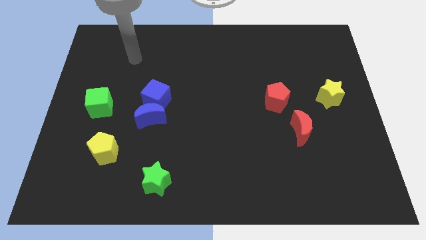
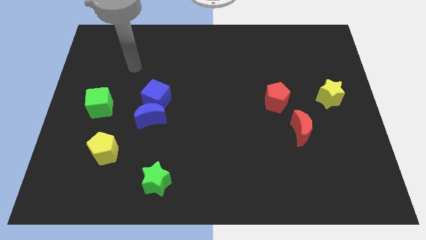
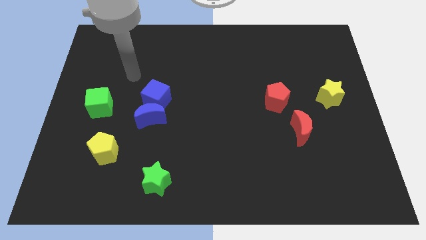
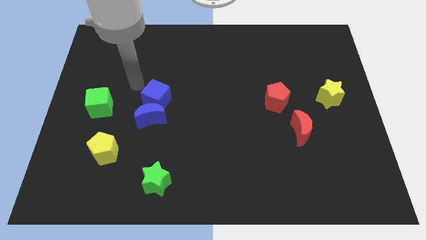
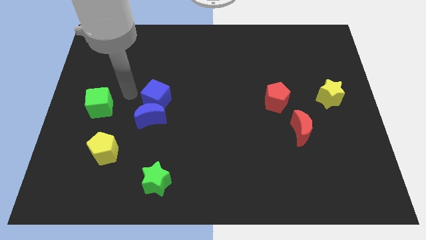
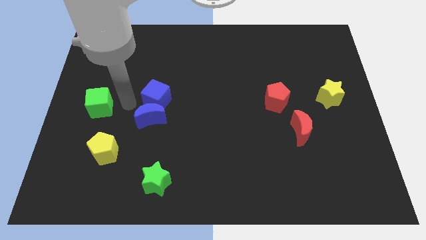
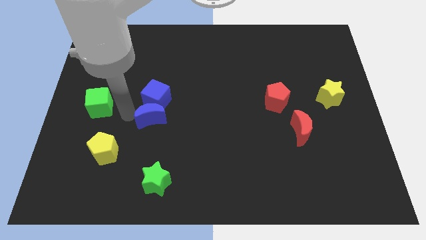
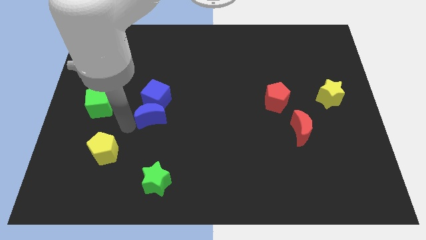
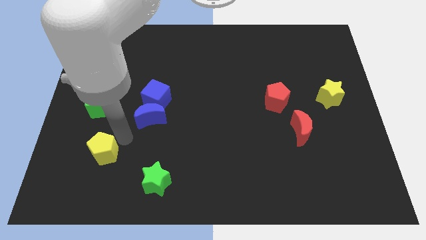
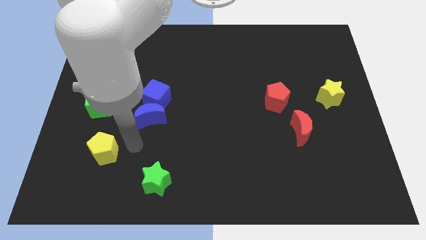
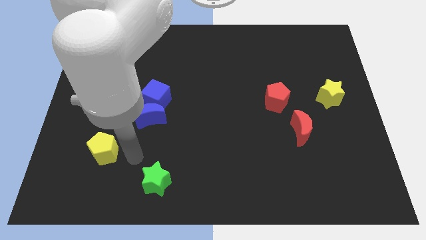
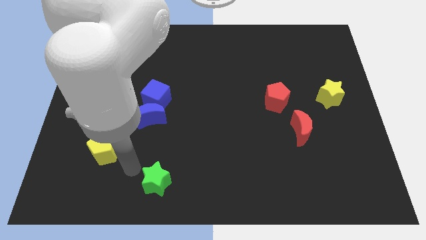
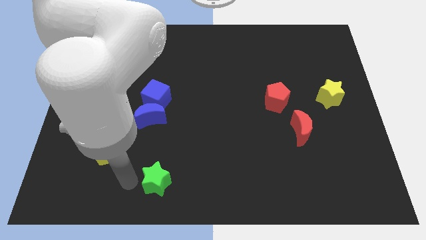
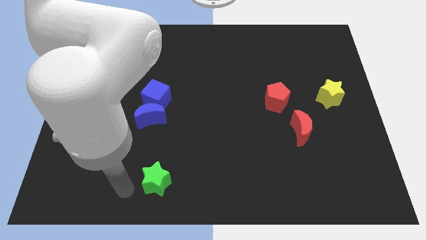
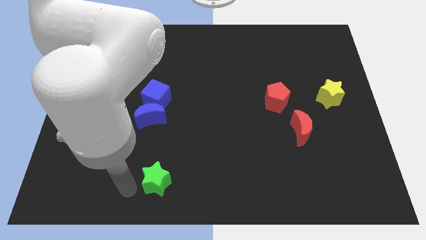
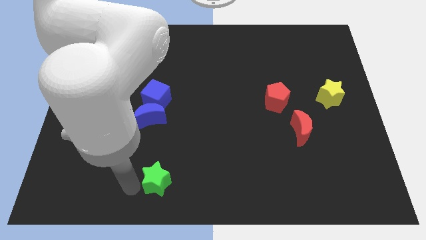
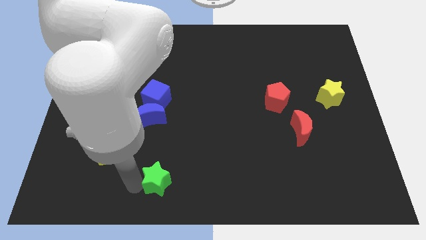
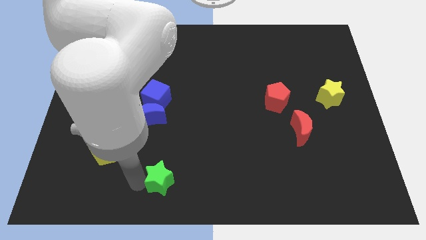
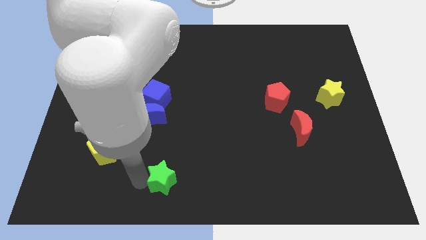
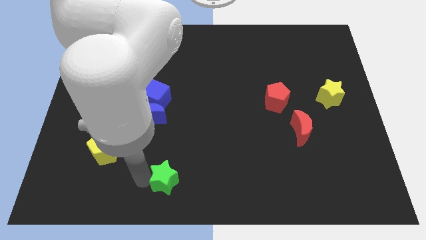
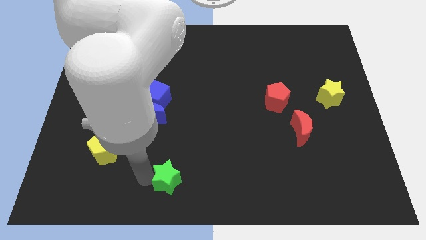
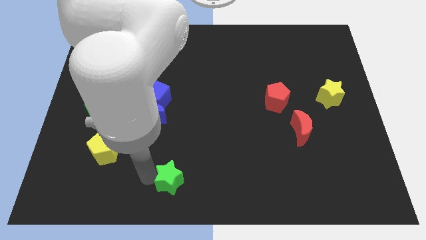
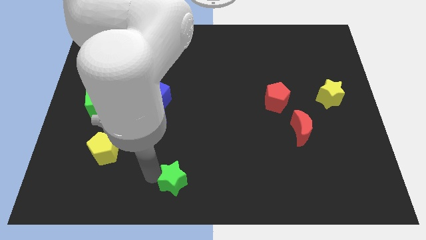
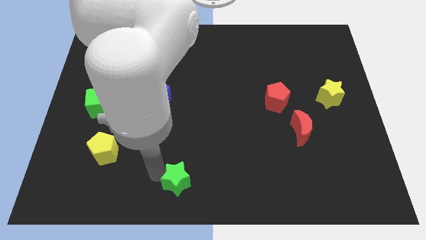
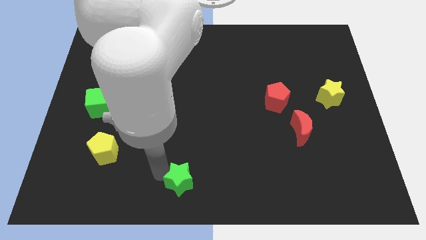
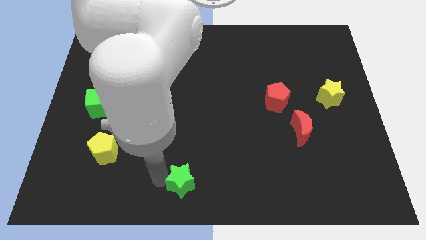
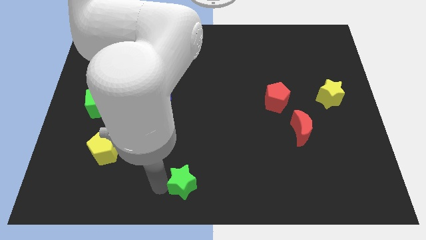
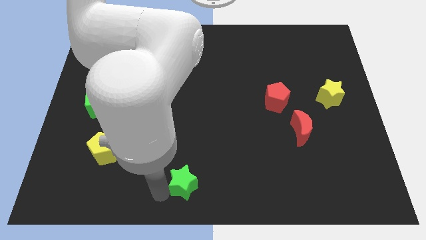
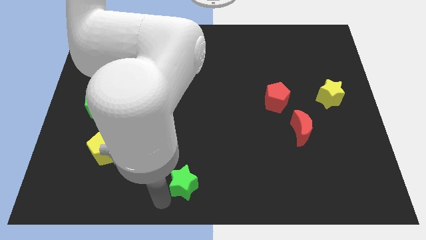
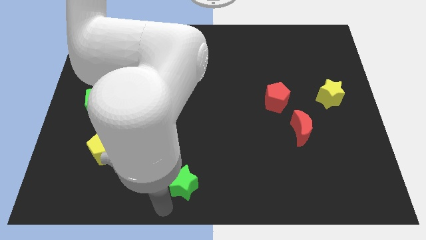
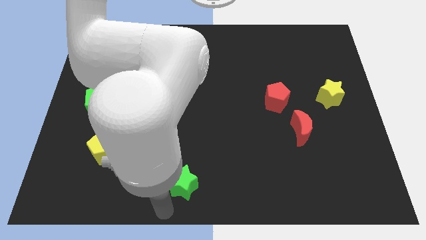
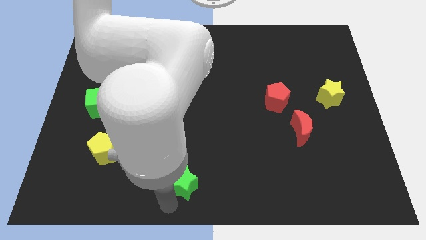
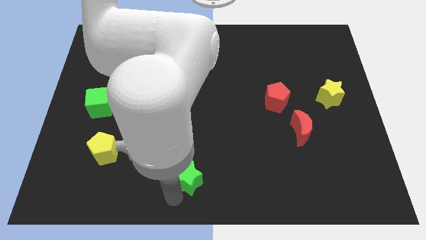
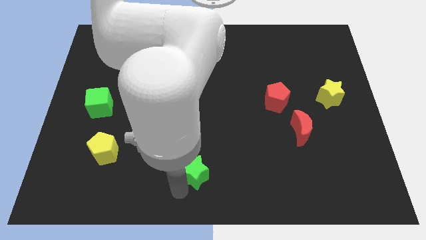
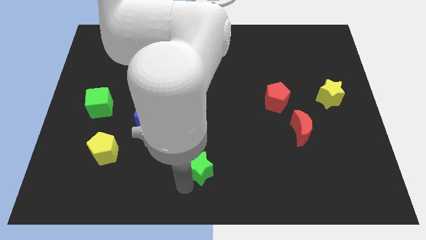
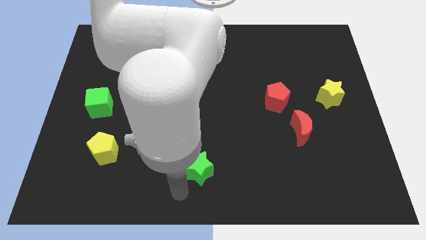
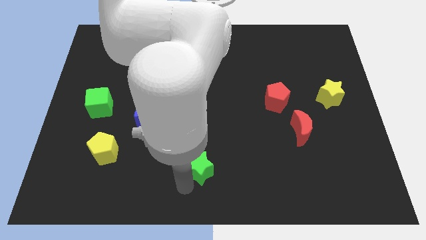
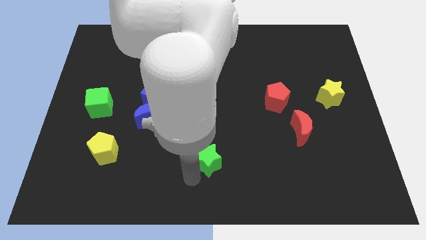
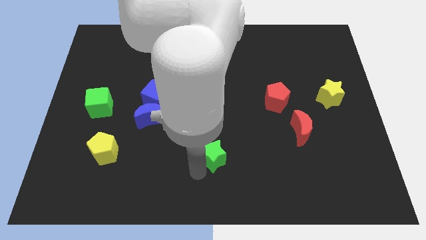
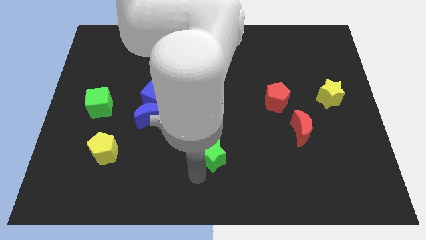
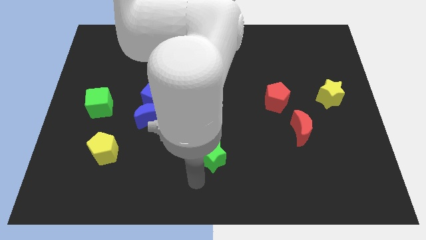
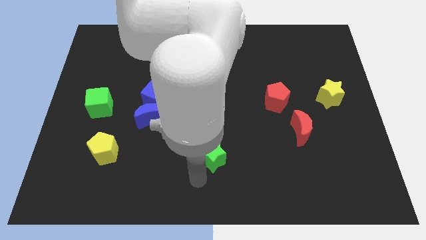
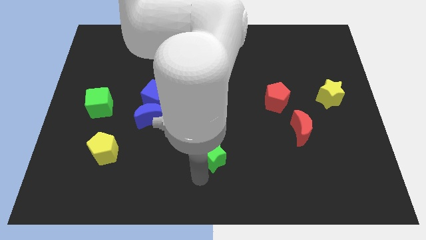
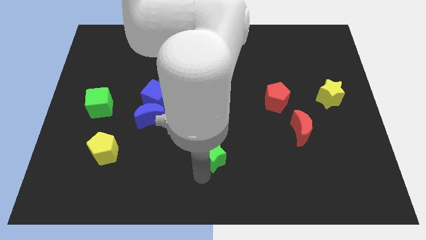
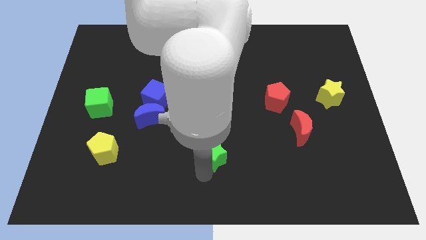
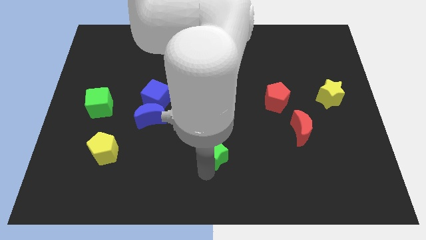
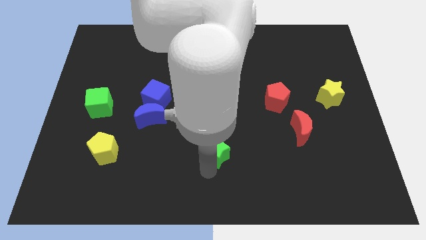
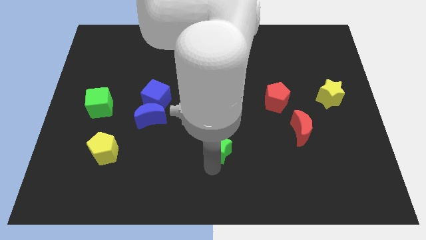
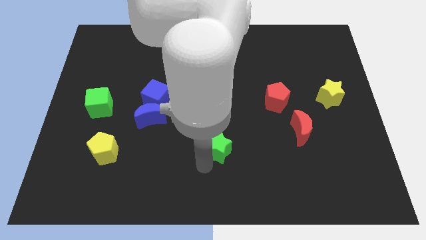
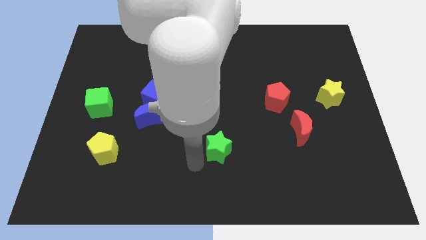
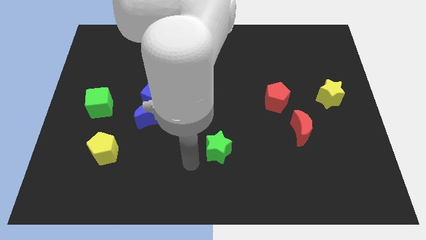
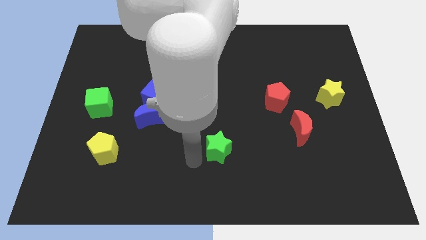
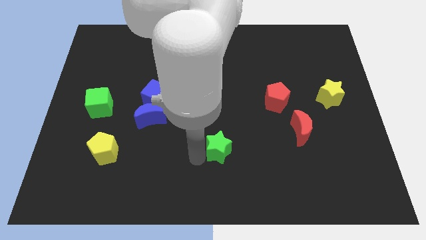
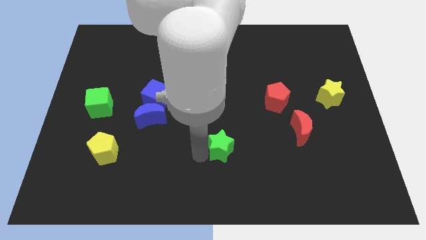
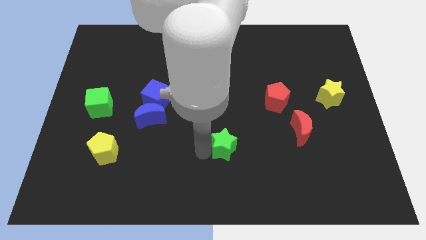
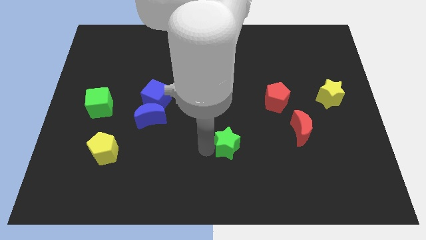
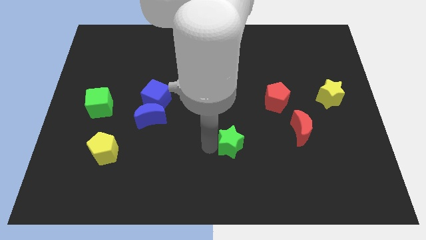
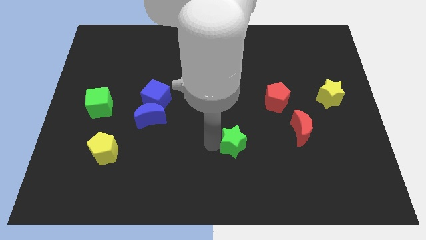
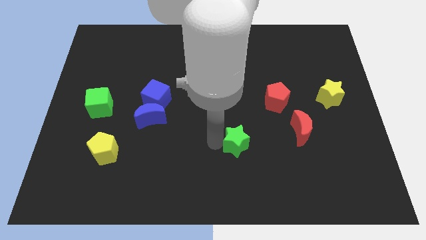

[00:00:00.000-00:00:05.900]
push the green star just left of the red moon

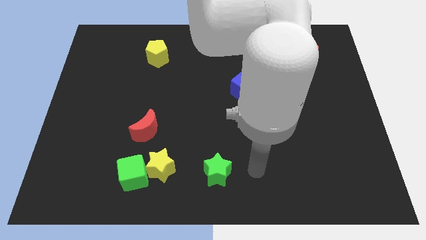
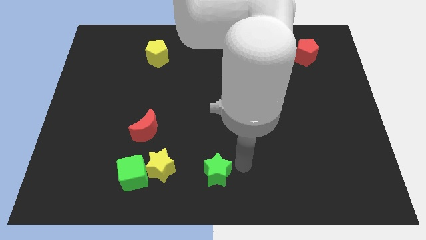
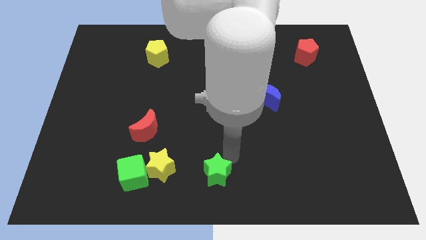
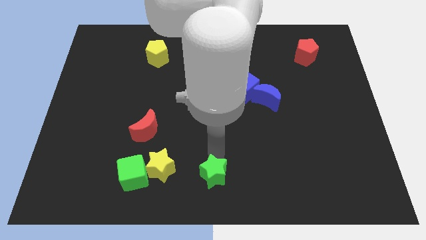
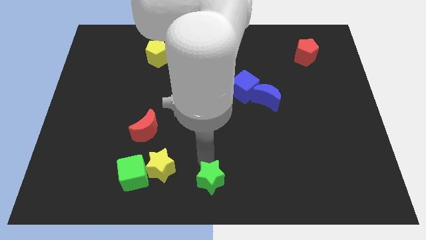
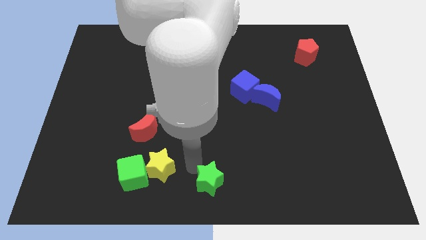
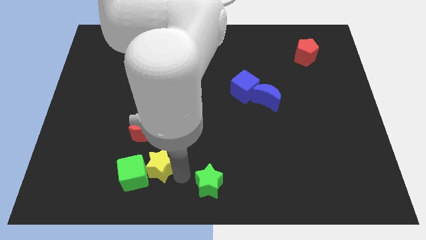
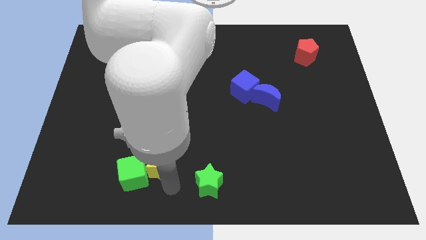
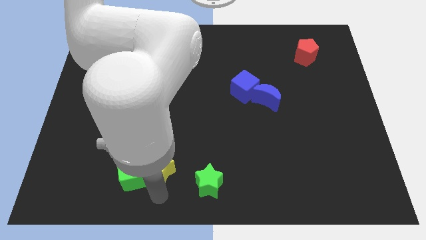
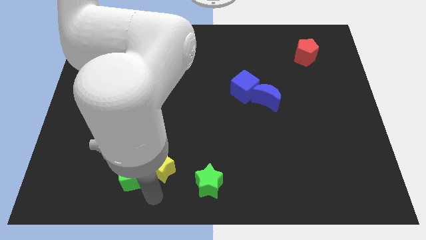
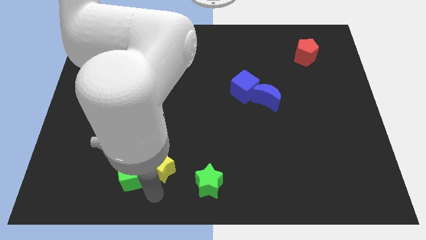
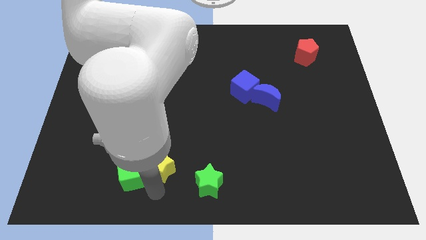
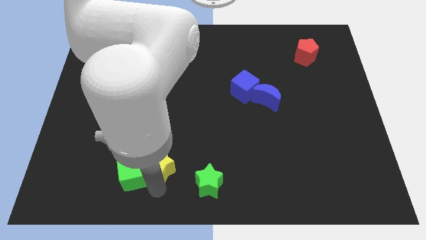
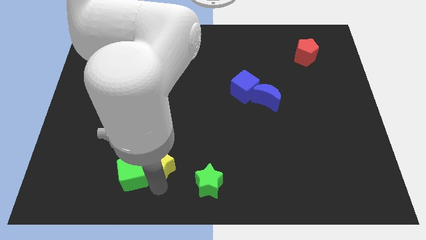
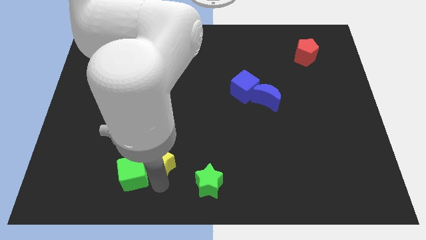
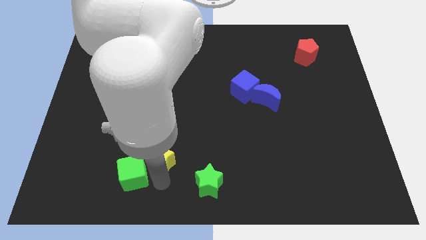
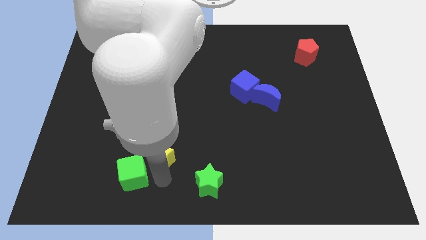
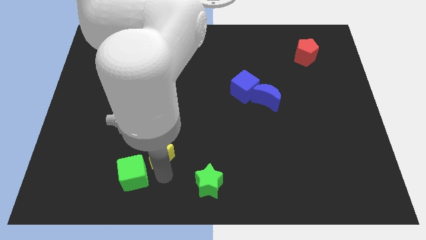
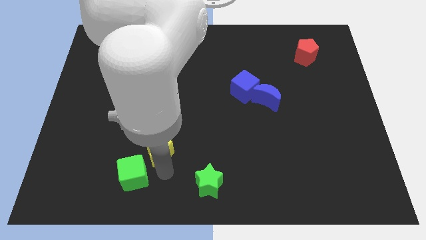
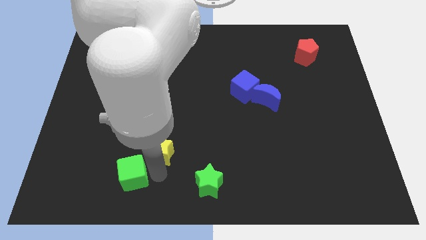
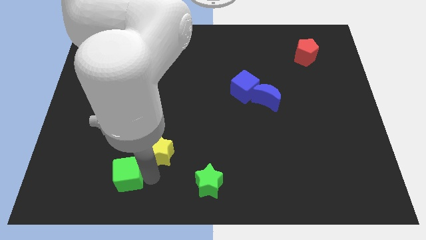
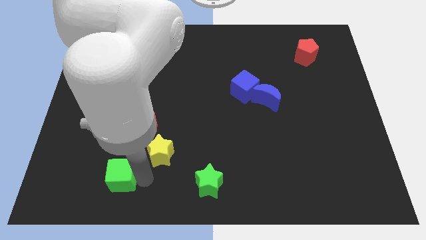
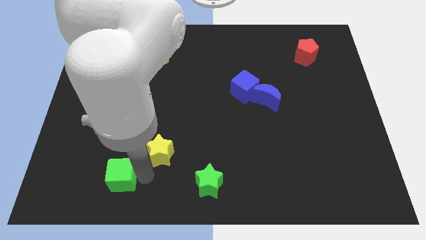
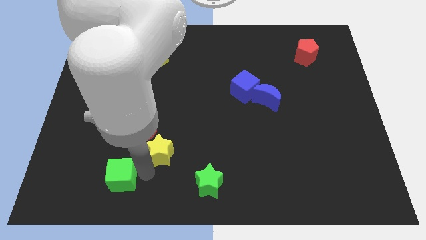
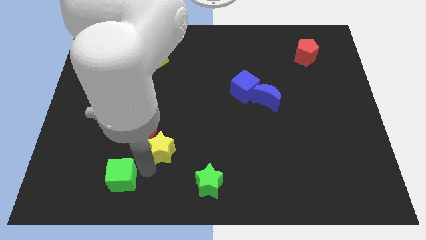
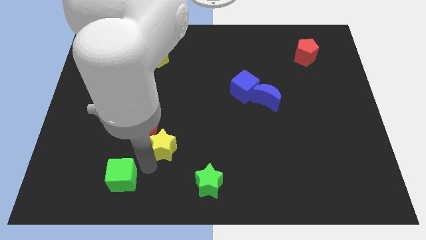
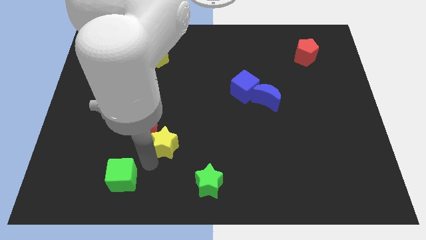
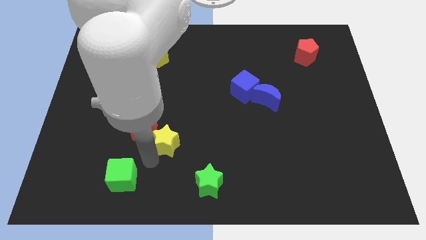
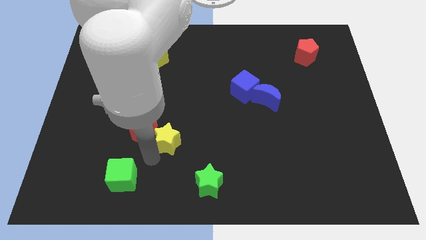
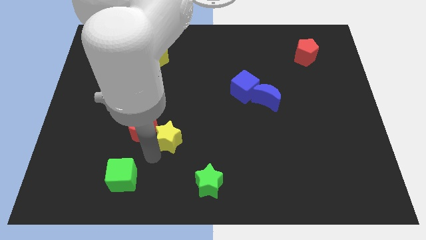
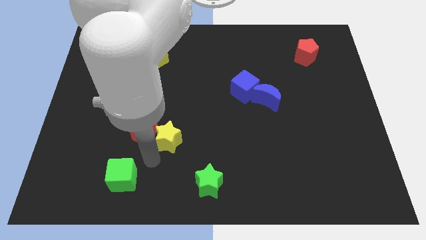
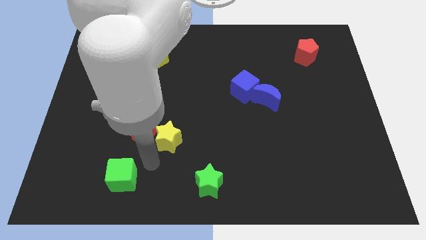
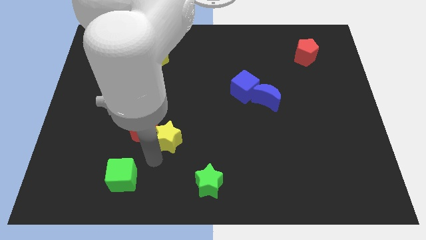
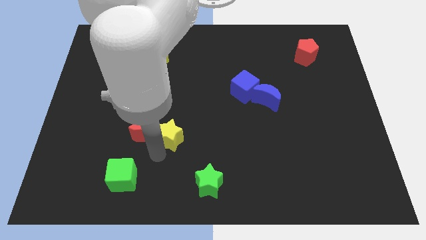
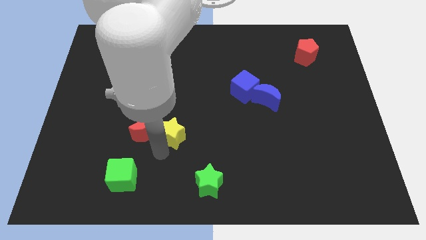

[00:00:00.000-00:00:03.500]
slide the yellow star to the top right side of the red moon
